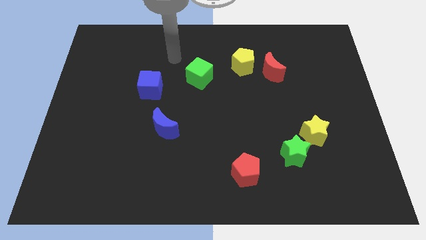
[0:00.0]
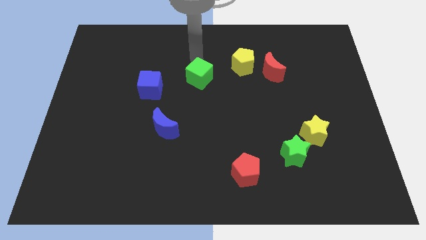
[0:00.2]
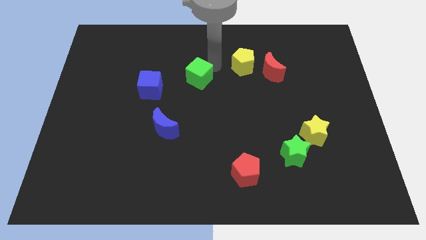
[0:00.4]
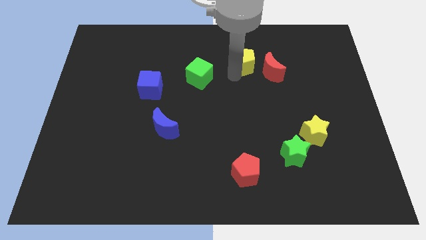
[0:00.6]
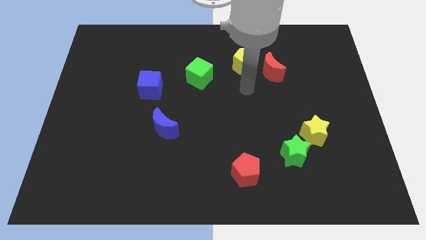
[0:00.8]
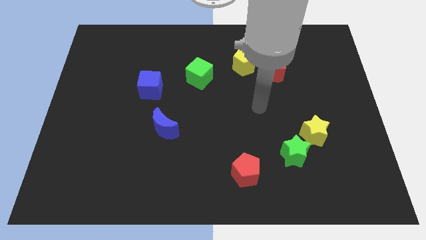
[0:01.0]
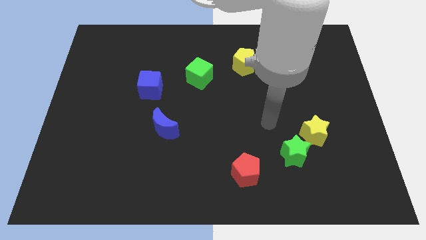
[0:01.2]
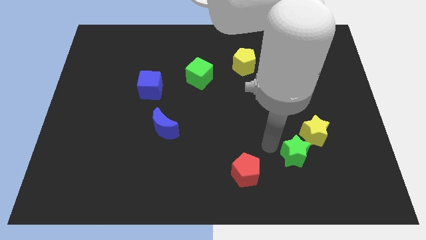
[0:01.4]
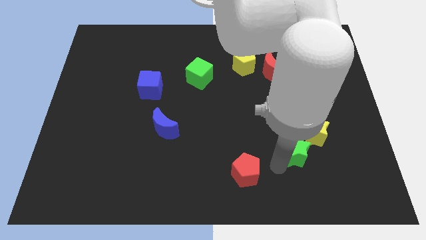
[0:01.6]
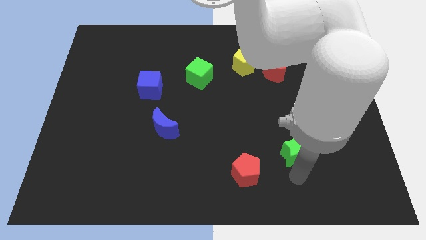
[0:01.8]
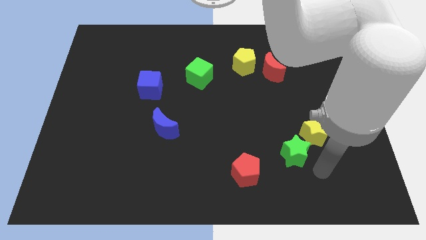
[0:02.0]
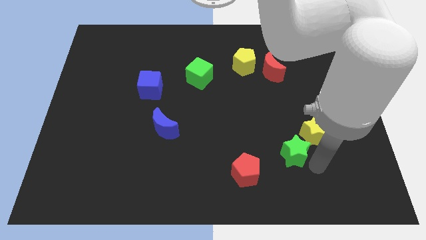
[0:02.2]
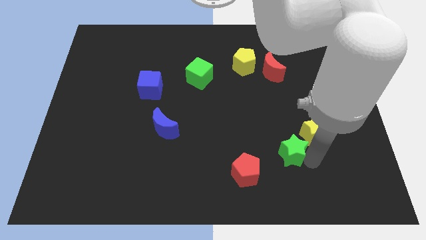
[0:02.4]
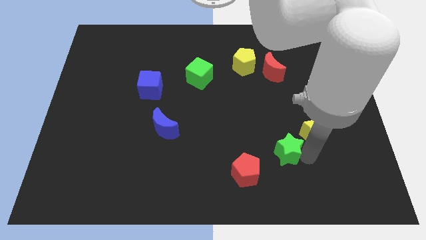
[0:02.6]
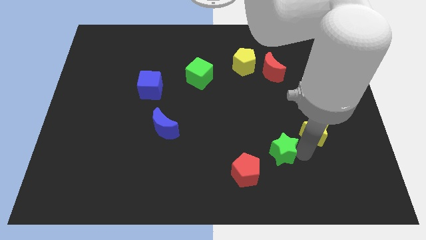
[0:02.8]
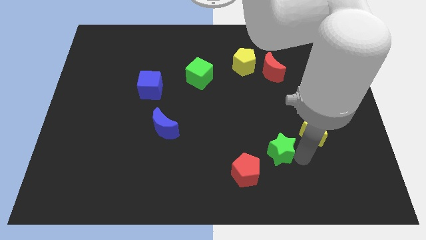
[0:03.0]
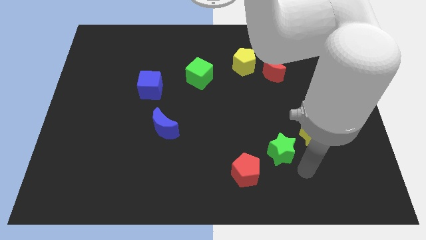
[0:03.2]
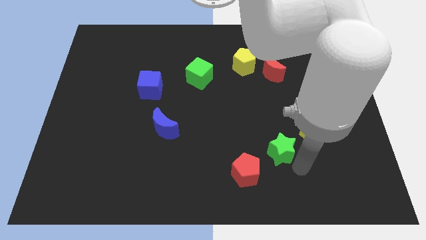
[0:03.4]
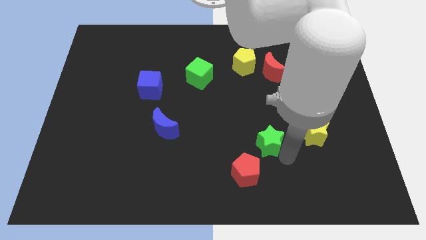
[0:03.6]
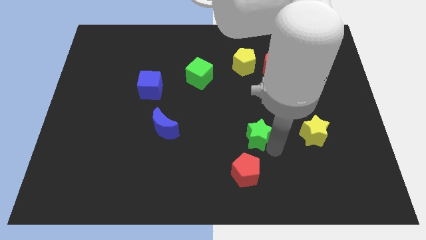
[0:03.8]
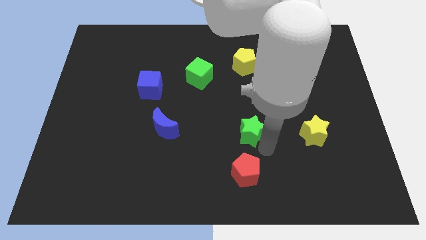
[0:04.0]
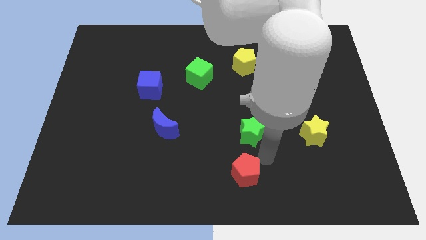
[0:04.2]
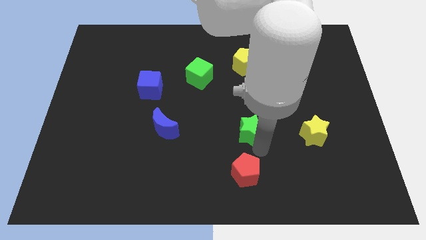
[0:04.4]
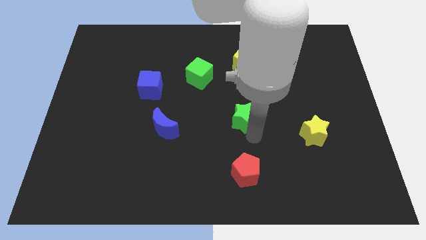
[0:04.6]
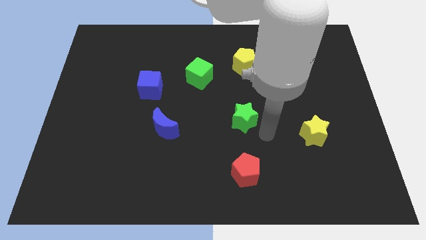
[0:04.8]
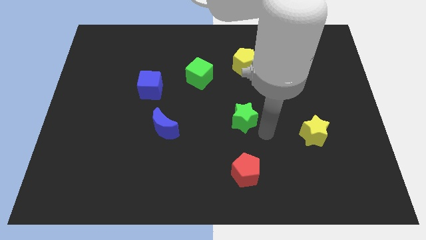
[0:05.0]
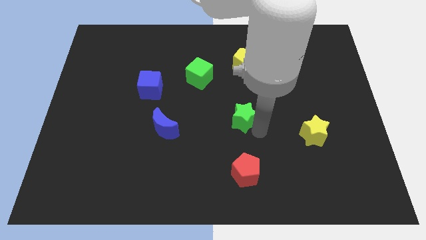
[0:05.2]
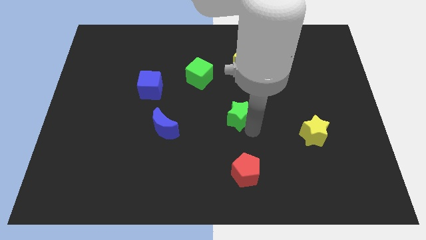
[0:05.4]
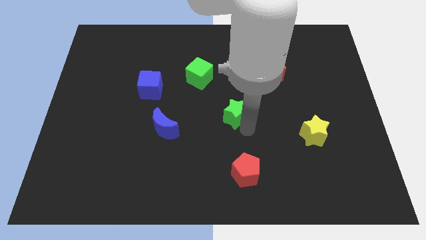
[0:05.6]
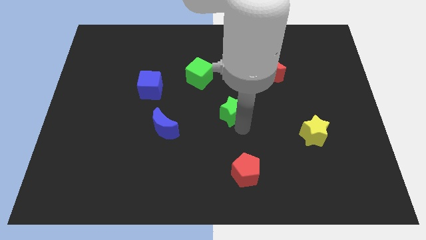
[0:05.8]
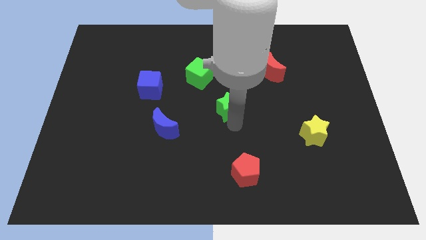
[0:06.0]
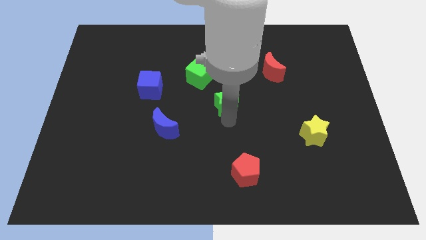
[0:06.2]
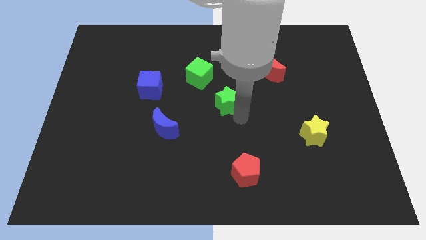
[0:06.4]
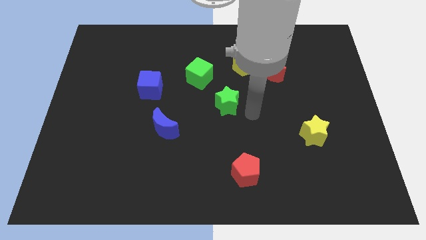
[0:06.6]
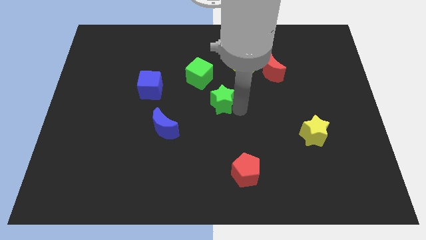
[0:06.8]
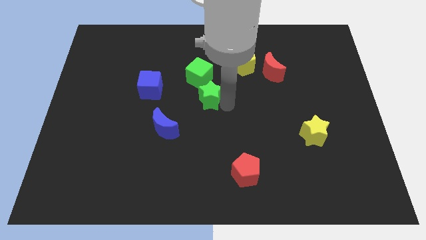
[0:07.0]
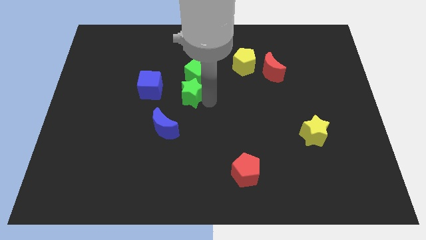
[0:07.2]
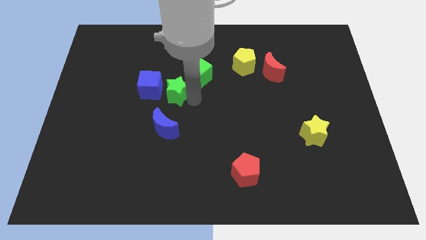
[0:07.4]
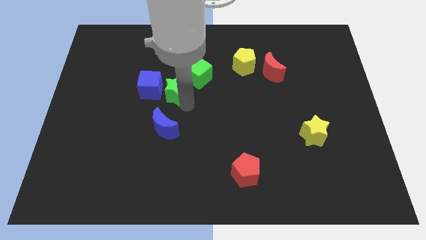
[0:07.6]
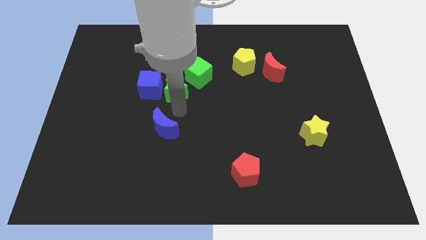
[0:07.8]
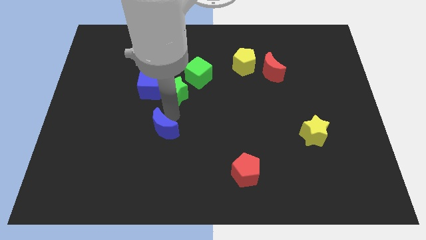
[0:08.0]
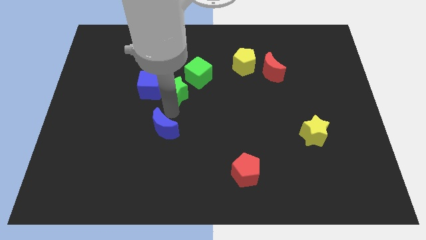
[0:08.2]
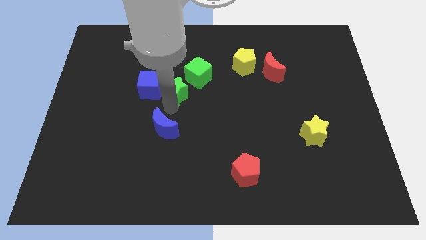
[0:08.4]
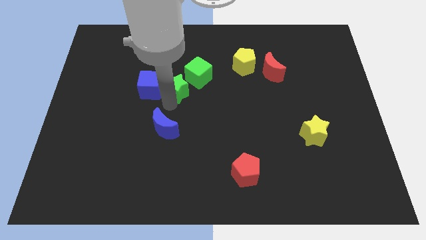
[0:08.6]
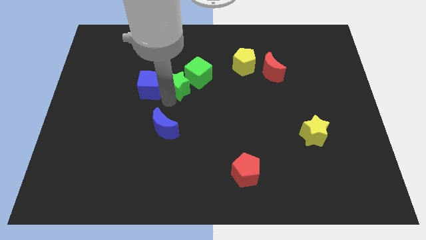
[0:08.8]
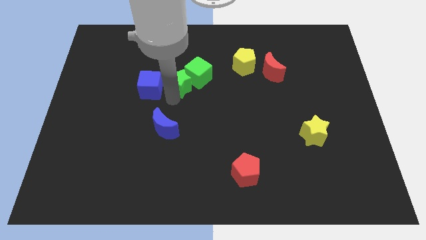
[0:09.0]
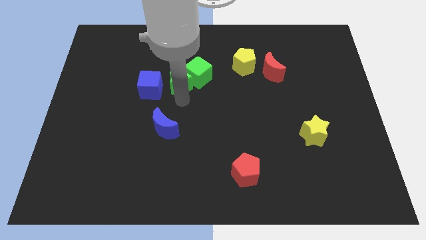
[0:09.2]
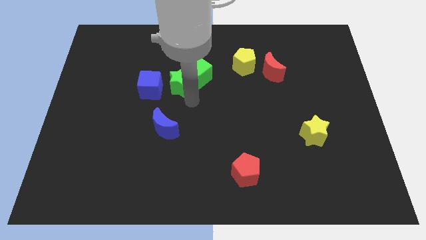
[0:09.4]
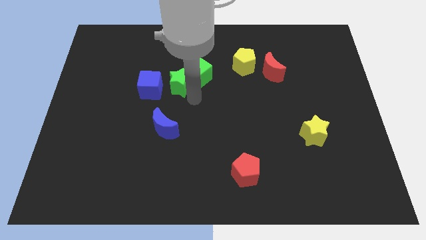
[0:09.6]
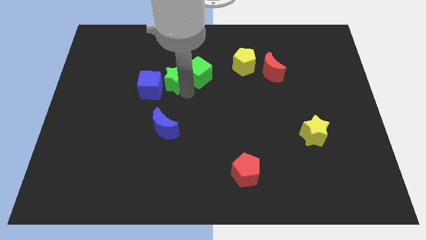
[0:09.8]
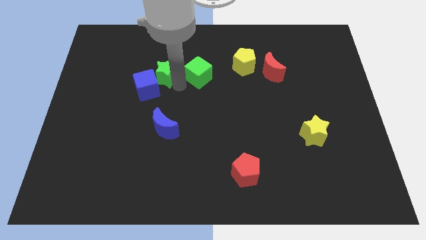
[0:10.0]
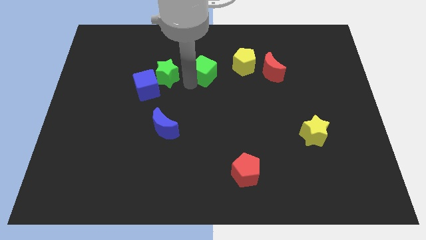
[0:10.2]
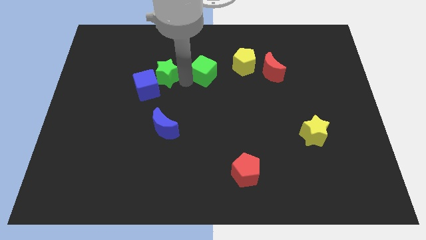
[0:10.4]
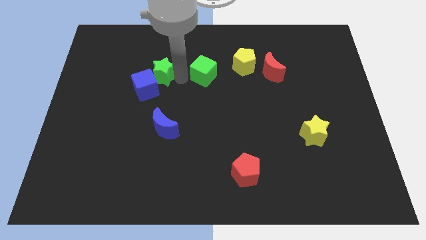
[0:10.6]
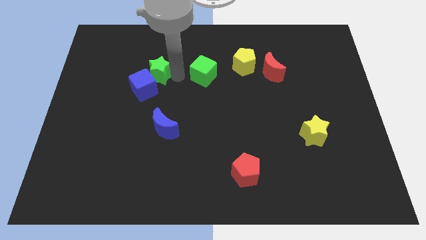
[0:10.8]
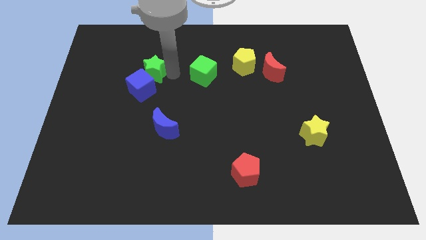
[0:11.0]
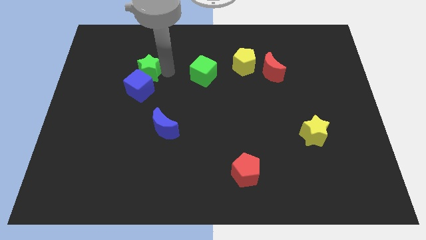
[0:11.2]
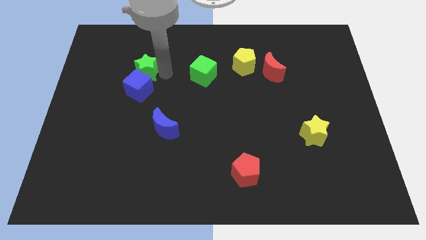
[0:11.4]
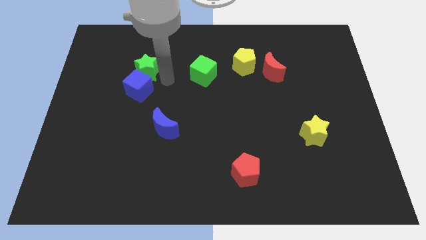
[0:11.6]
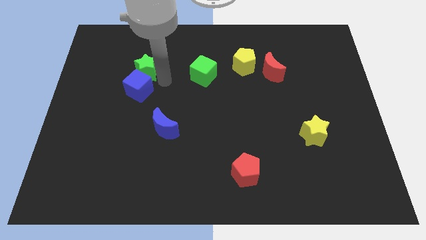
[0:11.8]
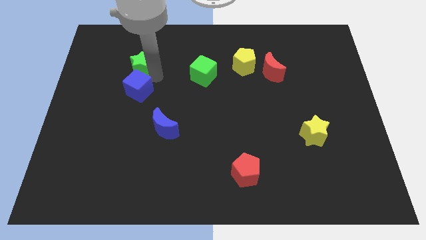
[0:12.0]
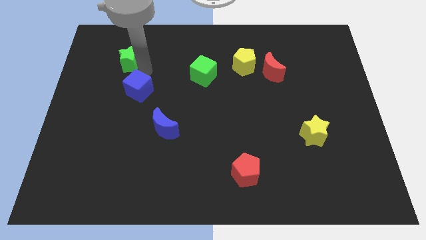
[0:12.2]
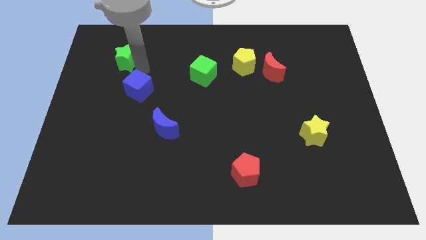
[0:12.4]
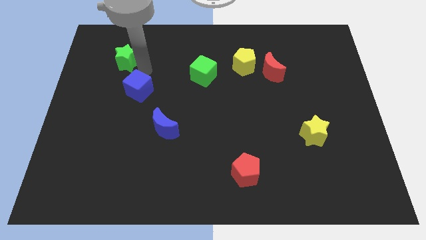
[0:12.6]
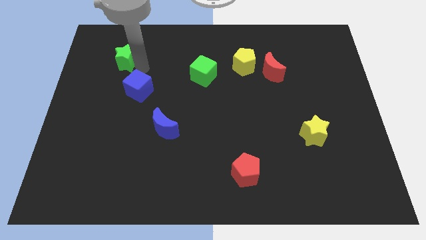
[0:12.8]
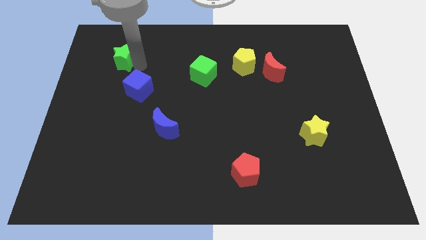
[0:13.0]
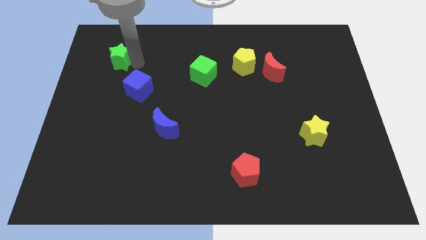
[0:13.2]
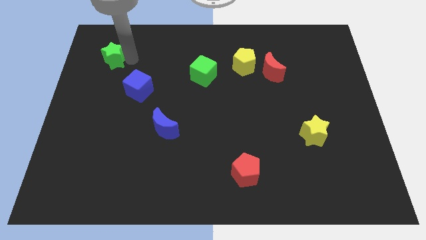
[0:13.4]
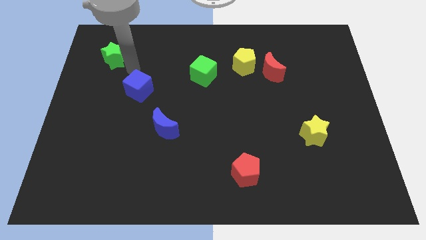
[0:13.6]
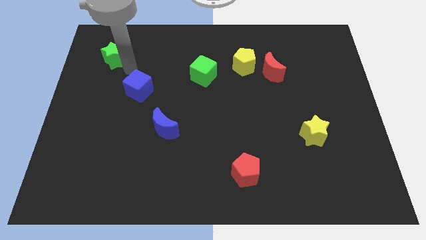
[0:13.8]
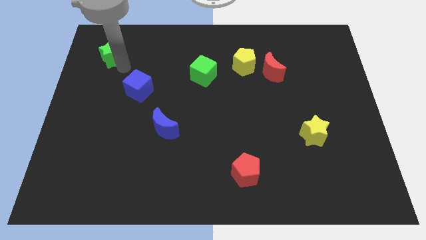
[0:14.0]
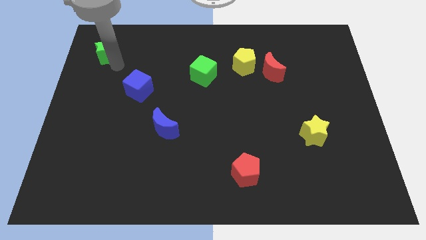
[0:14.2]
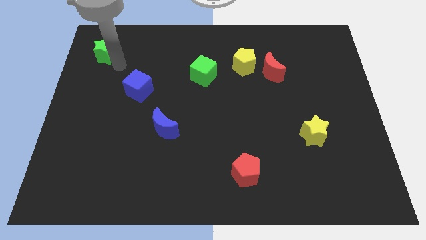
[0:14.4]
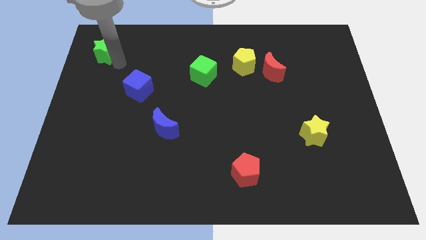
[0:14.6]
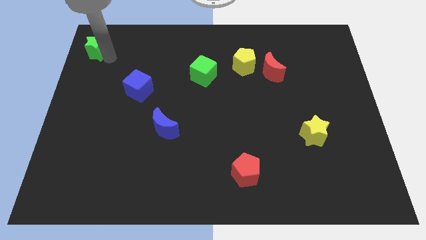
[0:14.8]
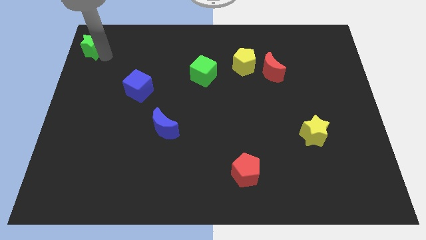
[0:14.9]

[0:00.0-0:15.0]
slide the green star to the top left of the board

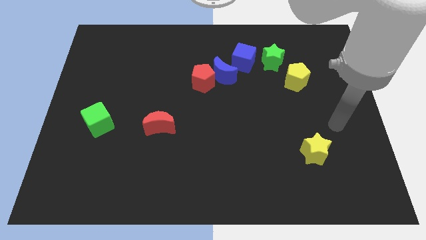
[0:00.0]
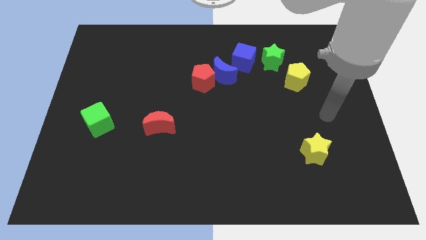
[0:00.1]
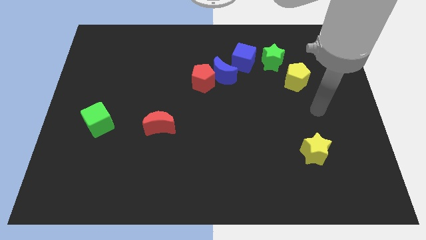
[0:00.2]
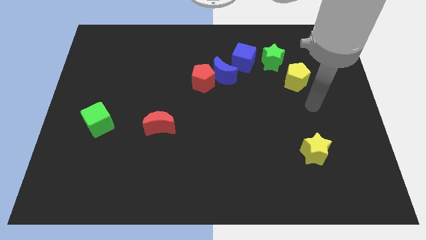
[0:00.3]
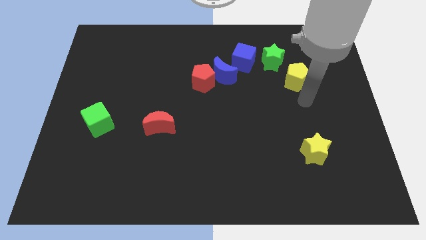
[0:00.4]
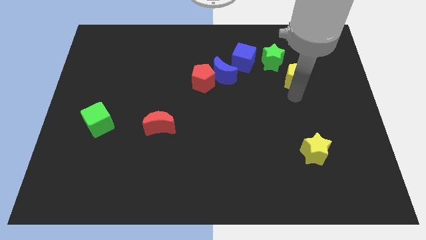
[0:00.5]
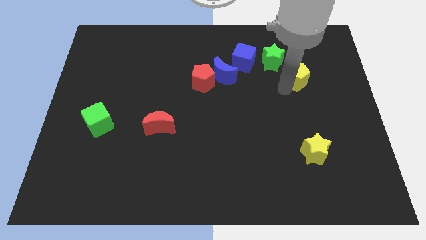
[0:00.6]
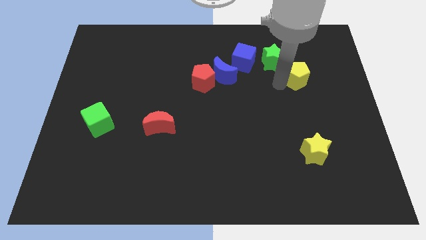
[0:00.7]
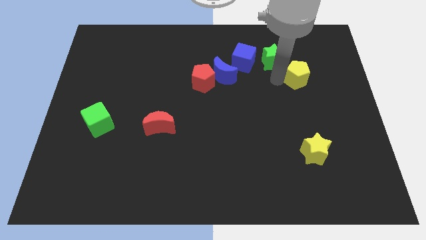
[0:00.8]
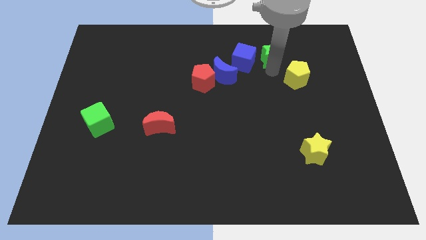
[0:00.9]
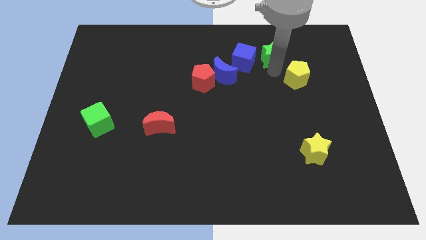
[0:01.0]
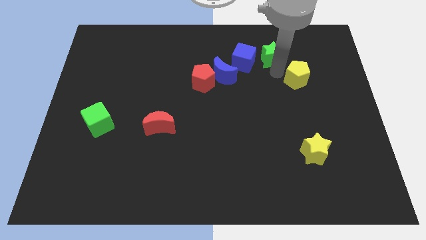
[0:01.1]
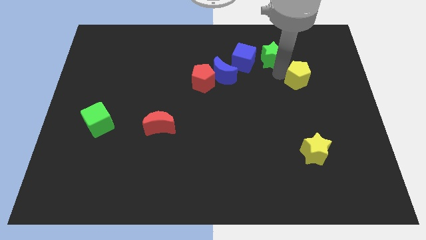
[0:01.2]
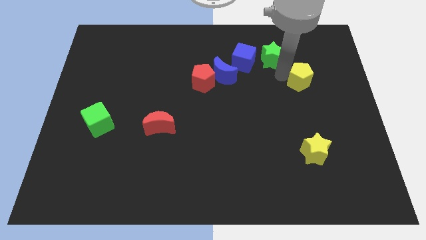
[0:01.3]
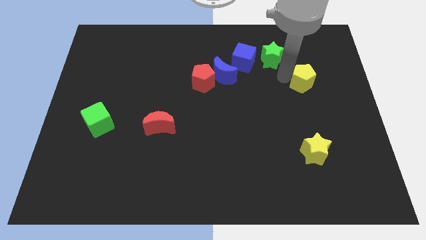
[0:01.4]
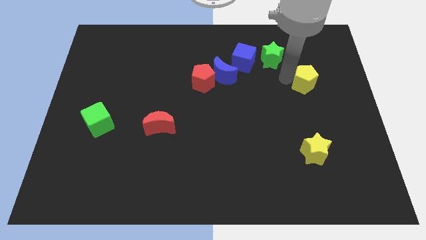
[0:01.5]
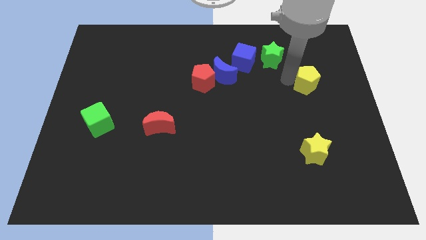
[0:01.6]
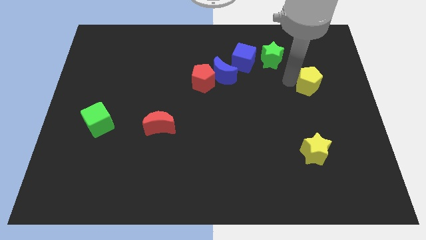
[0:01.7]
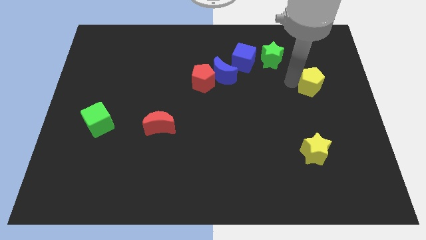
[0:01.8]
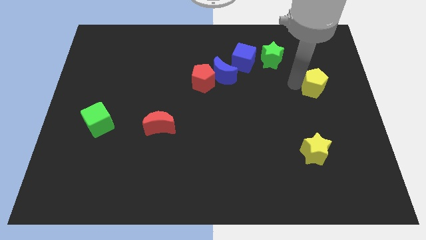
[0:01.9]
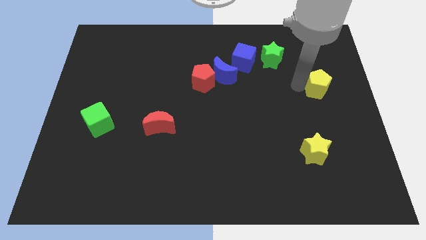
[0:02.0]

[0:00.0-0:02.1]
put the yellow pentagon to the center right
